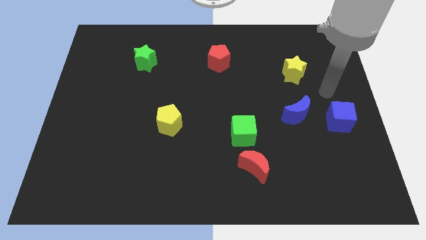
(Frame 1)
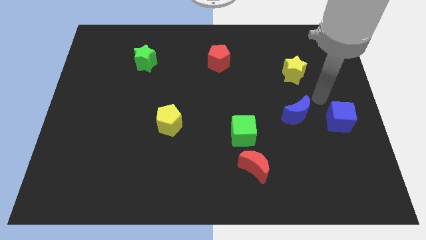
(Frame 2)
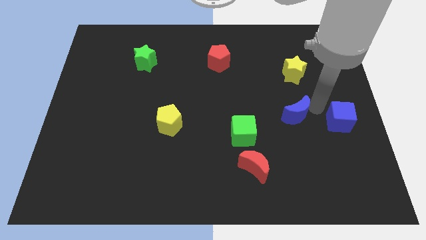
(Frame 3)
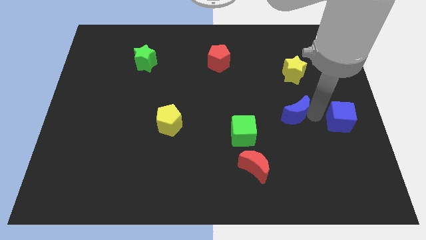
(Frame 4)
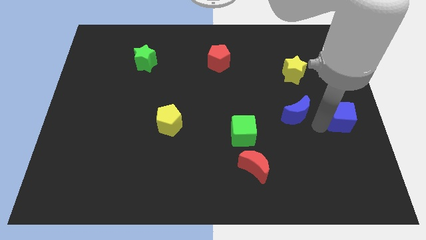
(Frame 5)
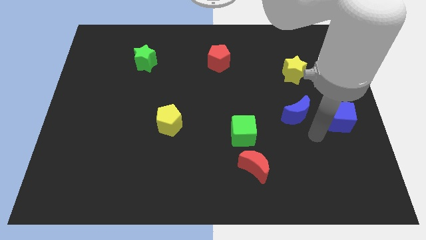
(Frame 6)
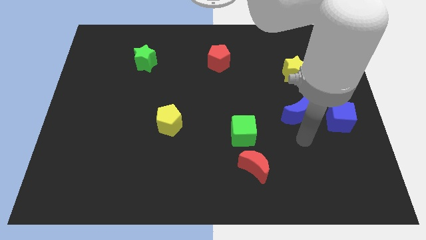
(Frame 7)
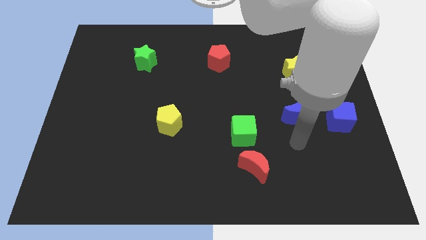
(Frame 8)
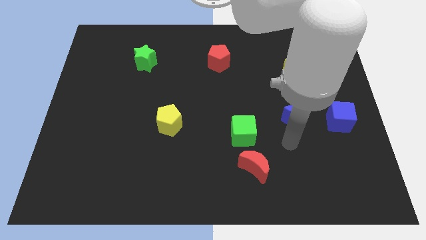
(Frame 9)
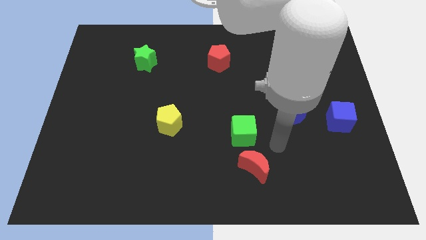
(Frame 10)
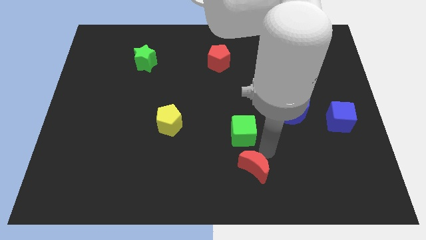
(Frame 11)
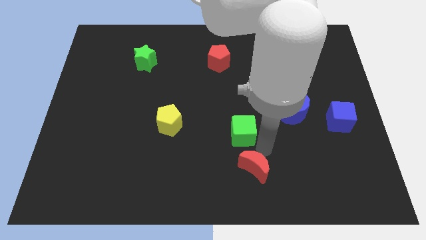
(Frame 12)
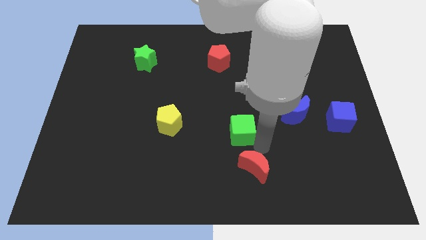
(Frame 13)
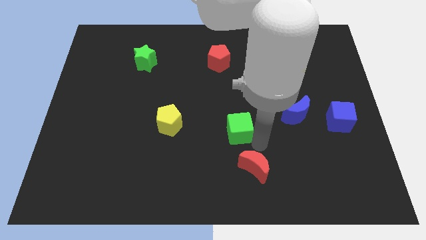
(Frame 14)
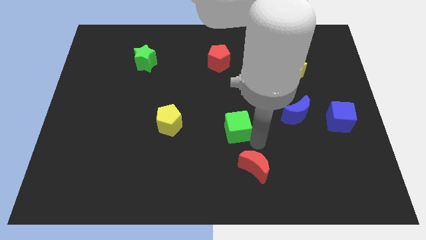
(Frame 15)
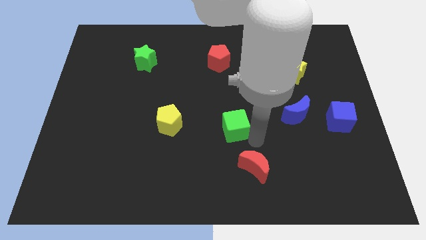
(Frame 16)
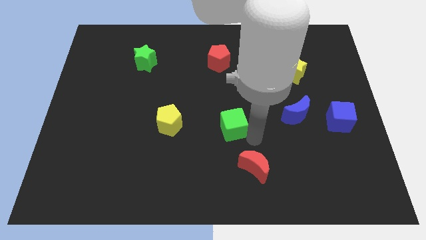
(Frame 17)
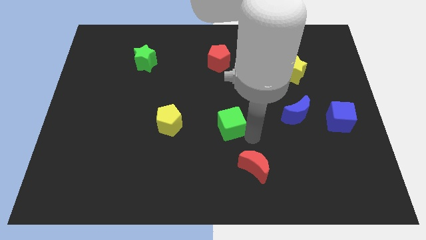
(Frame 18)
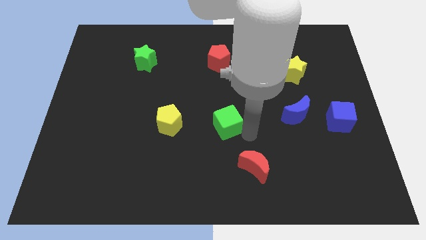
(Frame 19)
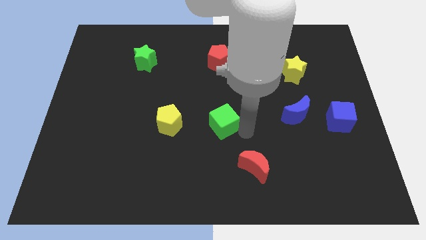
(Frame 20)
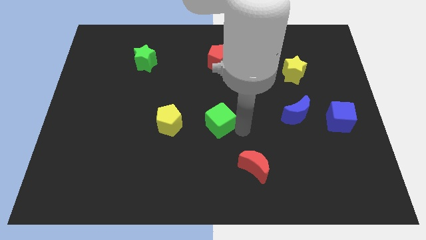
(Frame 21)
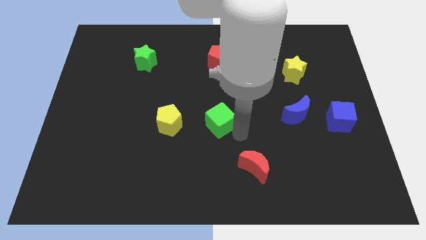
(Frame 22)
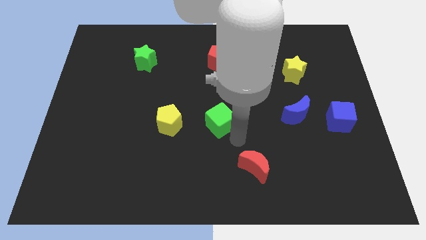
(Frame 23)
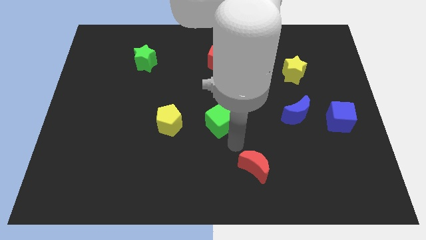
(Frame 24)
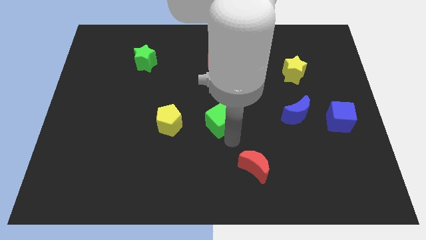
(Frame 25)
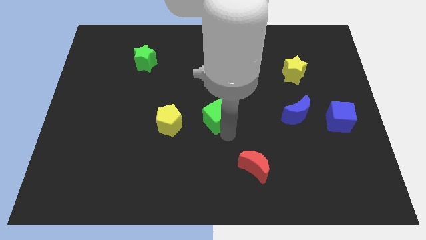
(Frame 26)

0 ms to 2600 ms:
move the green cube somewhat upwards and left

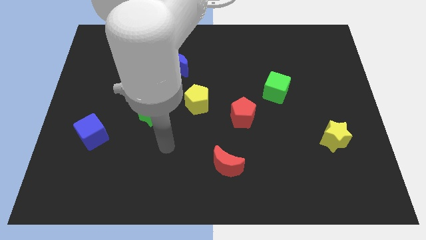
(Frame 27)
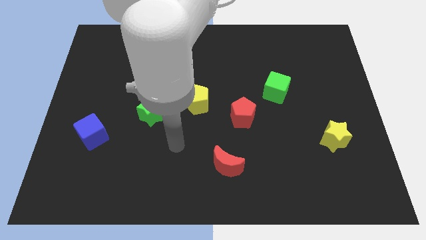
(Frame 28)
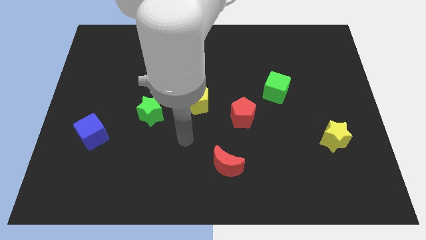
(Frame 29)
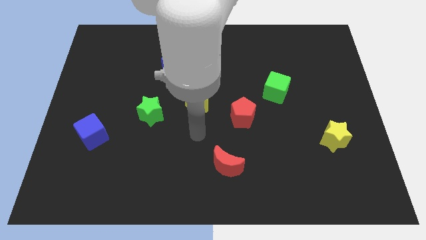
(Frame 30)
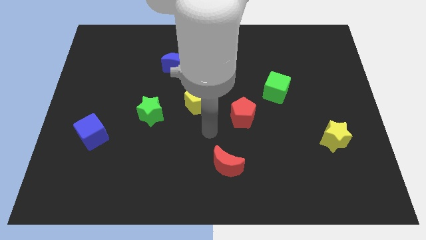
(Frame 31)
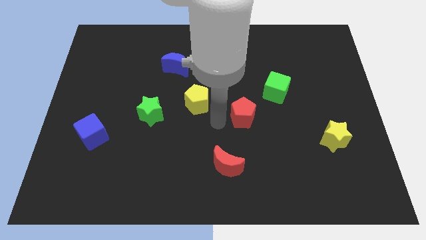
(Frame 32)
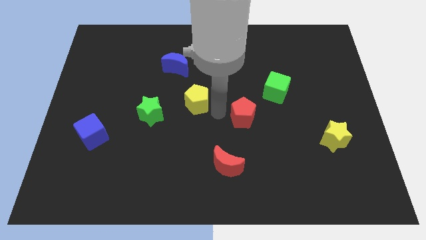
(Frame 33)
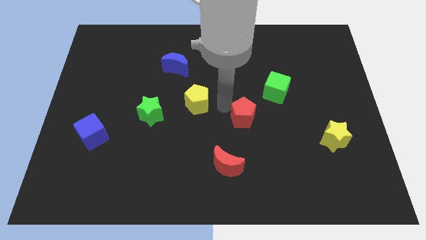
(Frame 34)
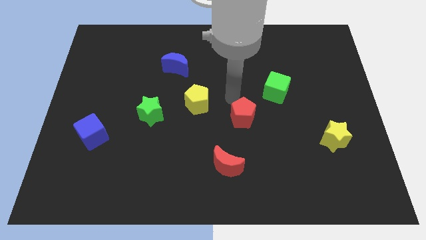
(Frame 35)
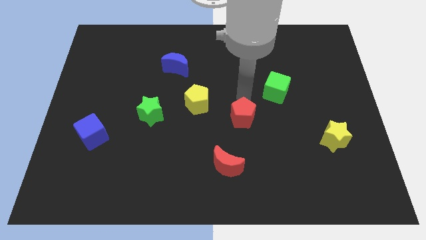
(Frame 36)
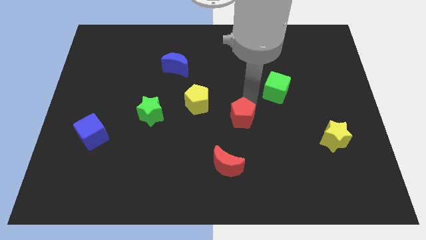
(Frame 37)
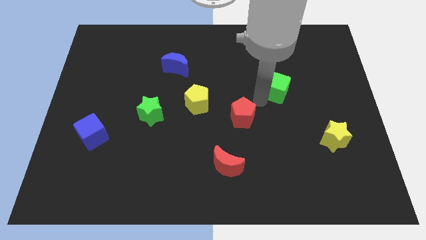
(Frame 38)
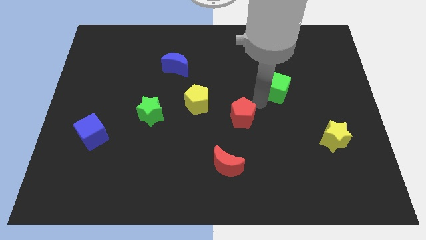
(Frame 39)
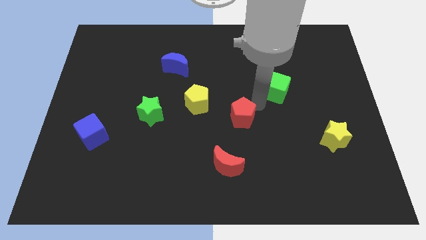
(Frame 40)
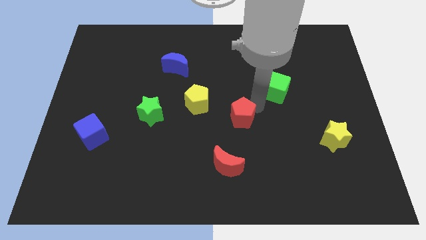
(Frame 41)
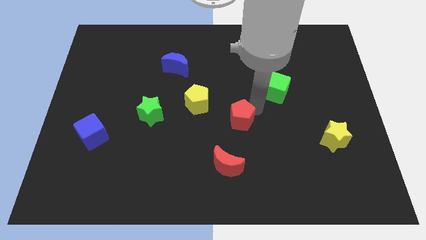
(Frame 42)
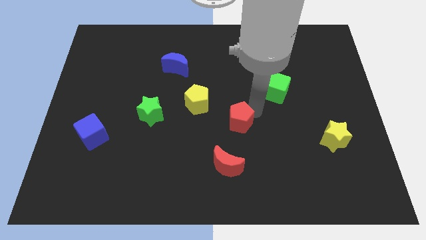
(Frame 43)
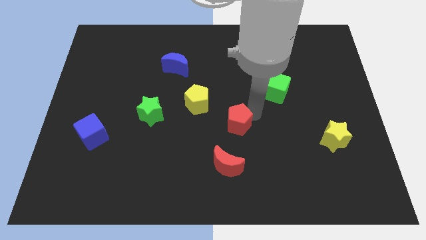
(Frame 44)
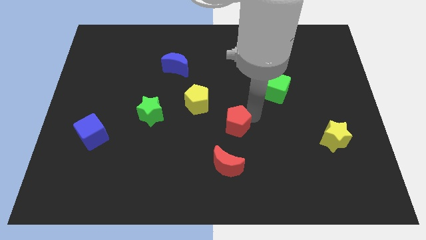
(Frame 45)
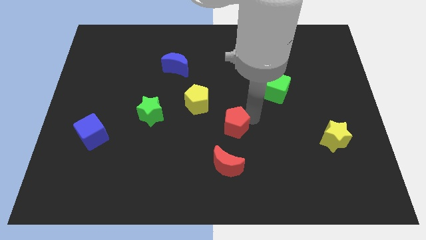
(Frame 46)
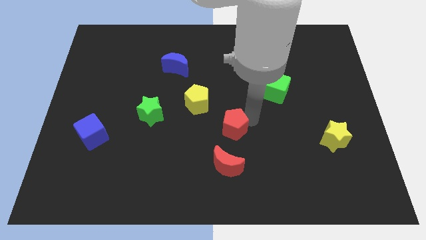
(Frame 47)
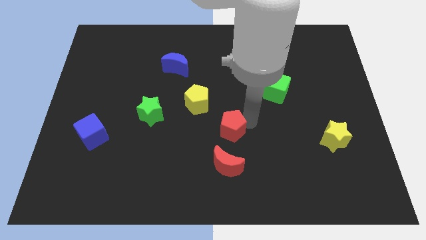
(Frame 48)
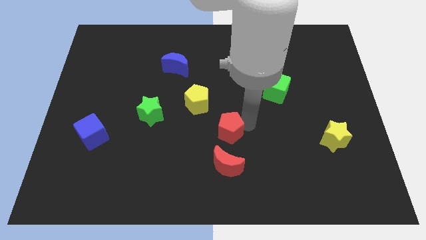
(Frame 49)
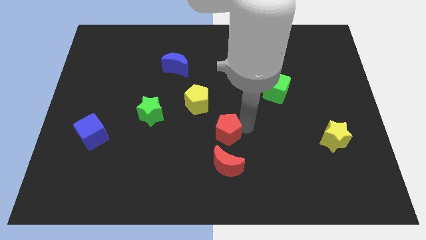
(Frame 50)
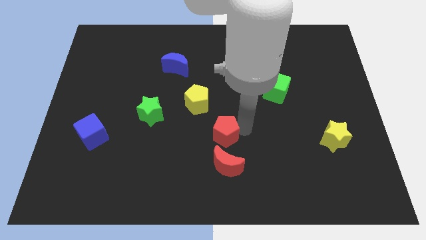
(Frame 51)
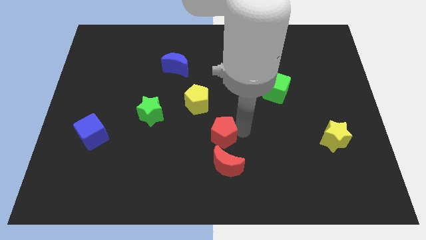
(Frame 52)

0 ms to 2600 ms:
slide the red pentagon downwards and then left somewhat

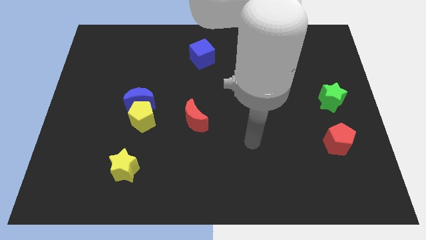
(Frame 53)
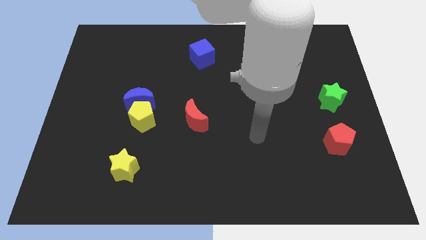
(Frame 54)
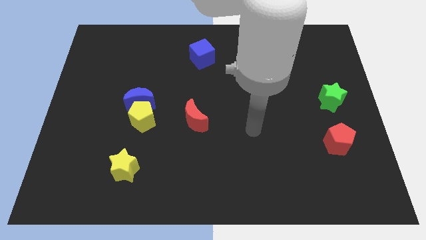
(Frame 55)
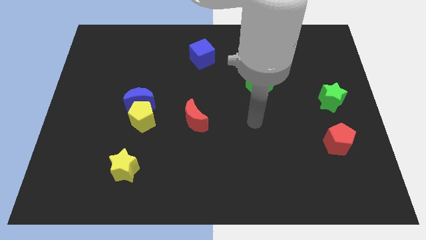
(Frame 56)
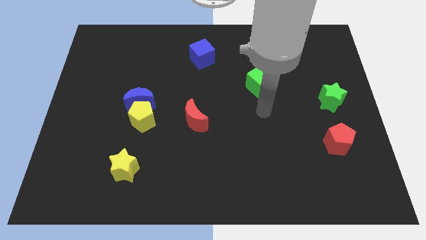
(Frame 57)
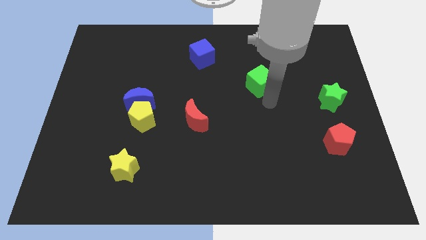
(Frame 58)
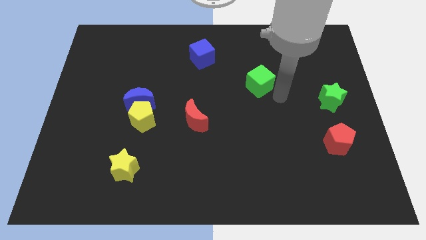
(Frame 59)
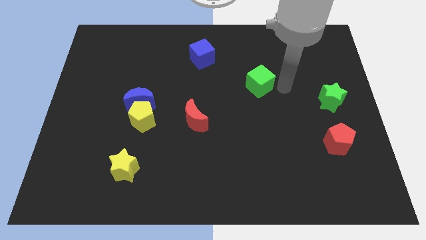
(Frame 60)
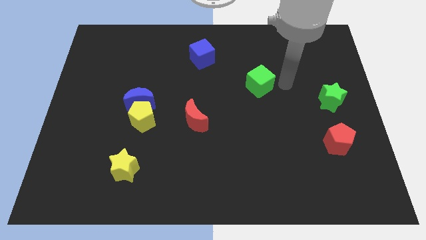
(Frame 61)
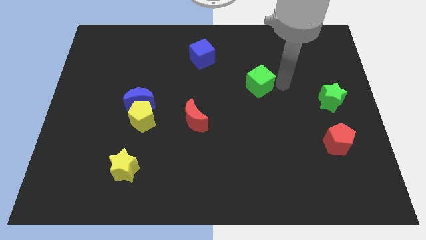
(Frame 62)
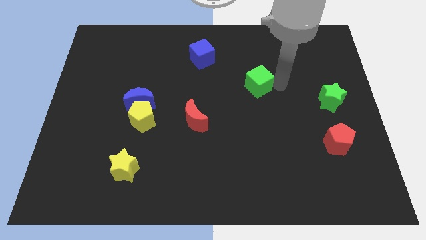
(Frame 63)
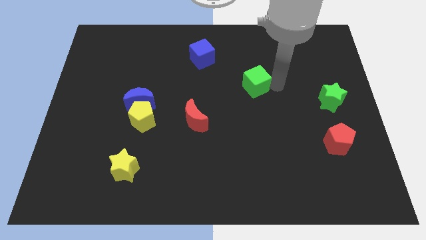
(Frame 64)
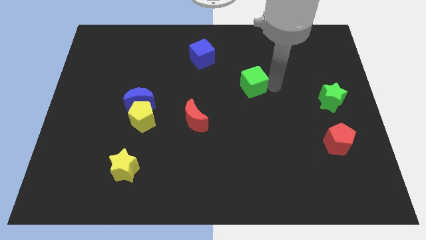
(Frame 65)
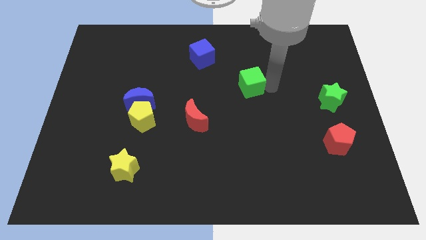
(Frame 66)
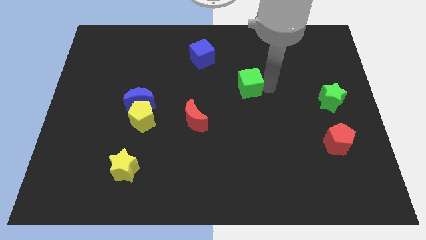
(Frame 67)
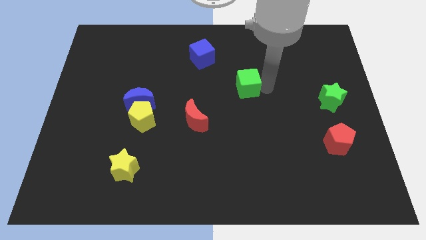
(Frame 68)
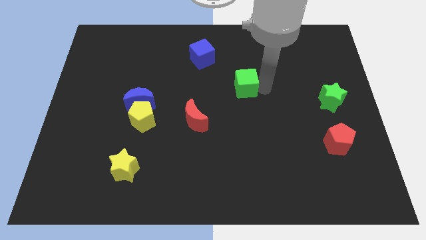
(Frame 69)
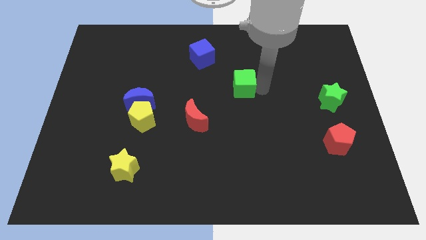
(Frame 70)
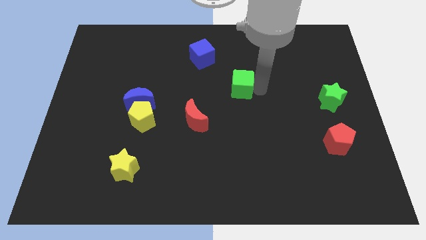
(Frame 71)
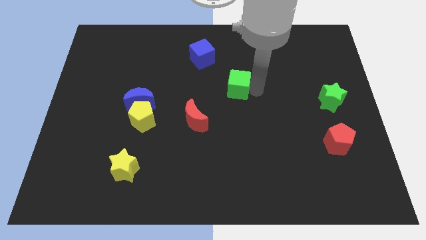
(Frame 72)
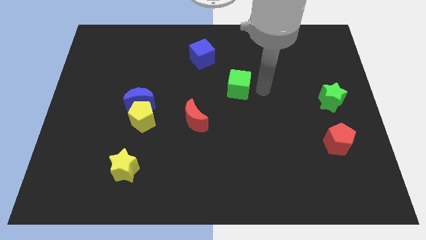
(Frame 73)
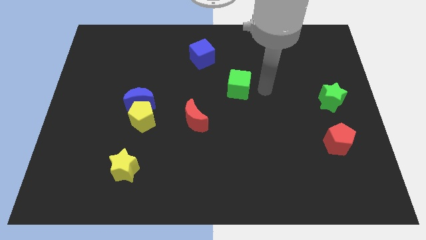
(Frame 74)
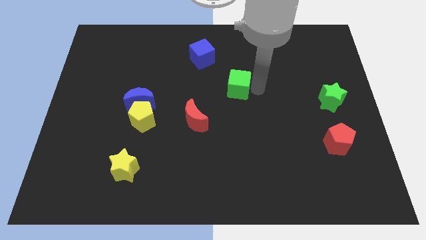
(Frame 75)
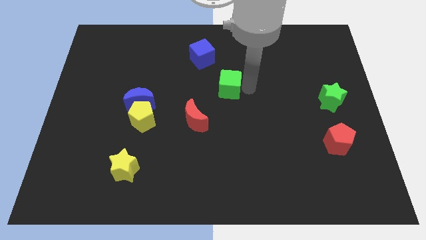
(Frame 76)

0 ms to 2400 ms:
slide the green cube a little to the left

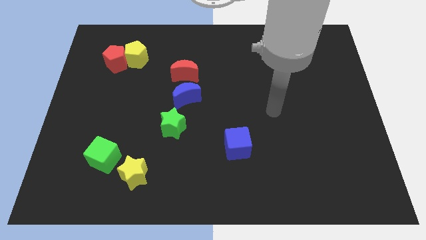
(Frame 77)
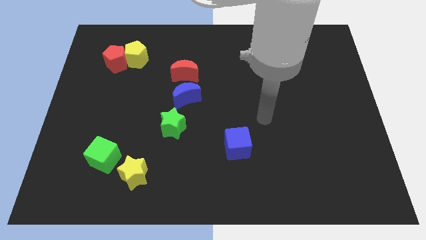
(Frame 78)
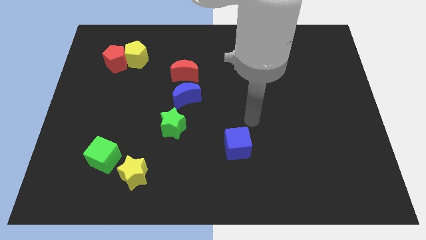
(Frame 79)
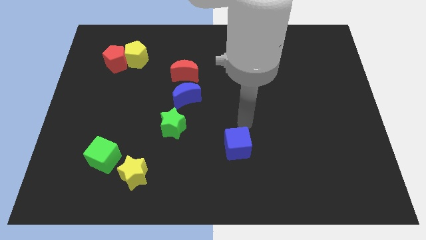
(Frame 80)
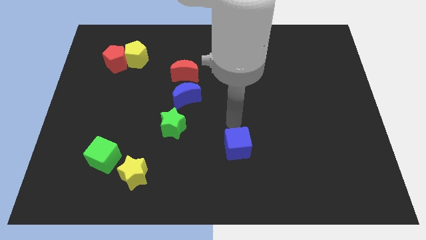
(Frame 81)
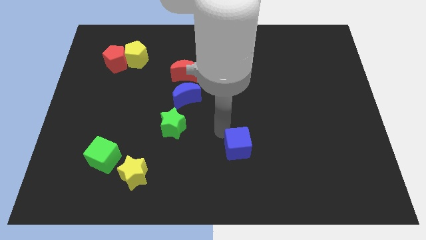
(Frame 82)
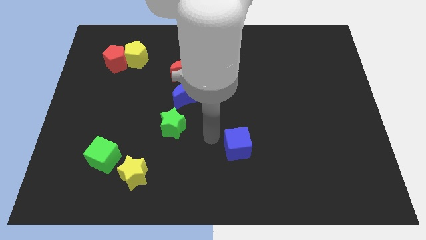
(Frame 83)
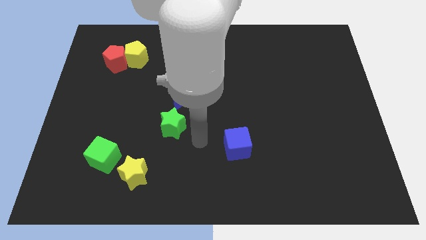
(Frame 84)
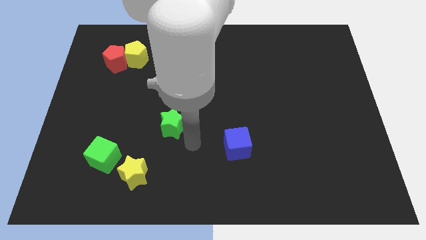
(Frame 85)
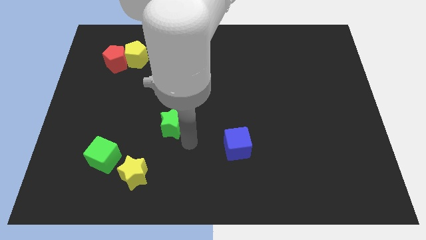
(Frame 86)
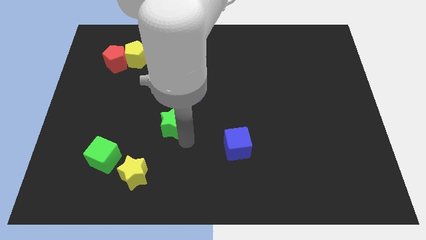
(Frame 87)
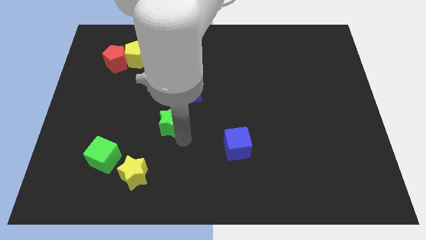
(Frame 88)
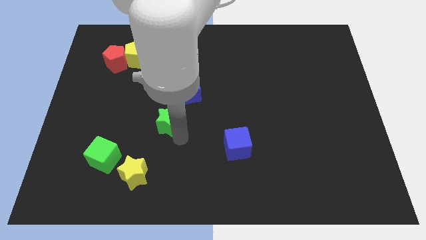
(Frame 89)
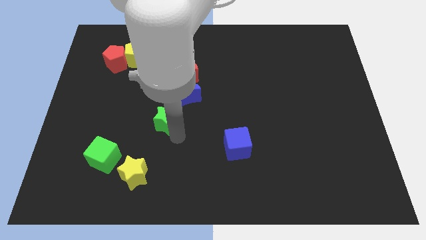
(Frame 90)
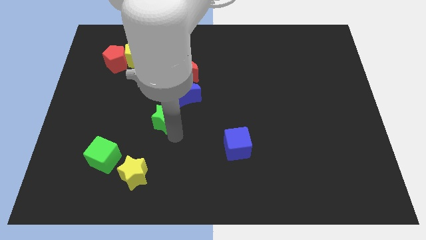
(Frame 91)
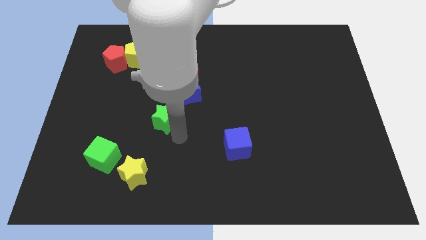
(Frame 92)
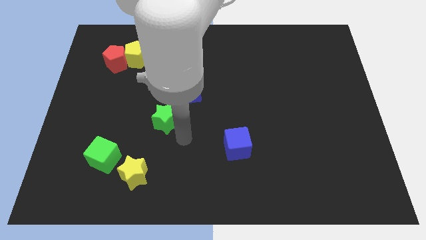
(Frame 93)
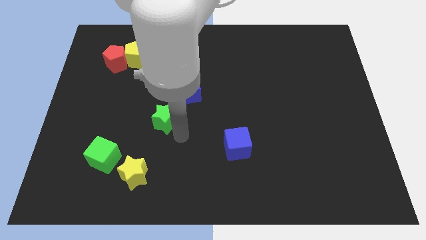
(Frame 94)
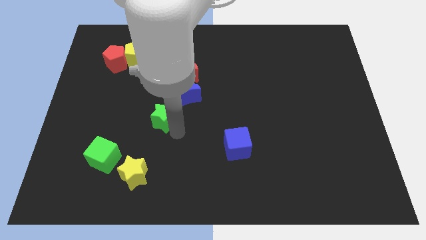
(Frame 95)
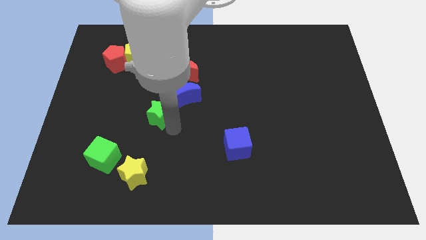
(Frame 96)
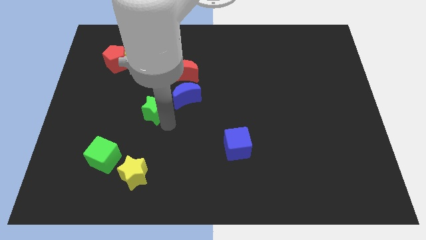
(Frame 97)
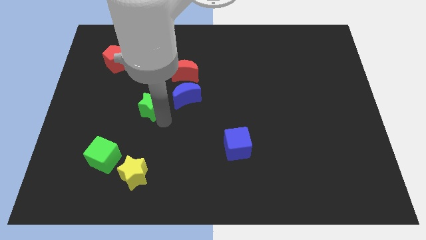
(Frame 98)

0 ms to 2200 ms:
slide the green star slightly diagonally upwards and left
